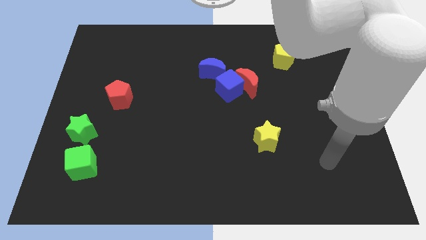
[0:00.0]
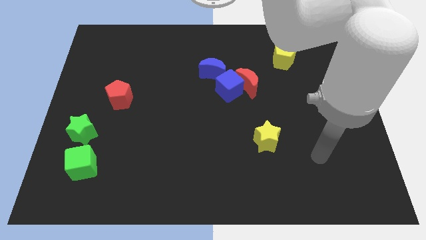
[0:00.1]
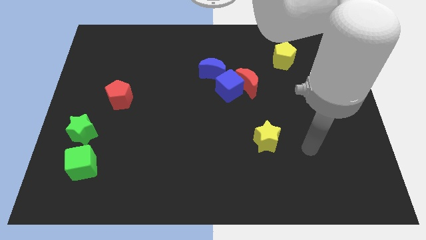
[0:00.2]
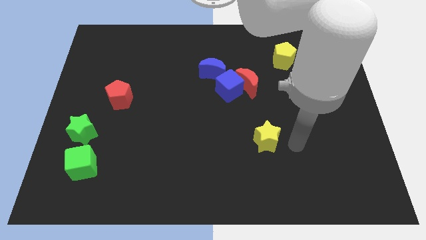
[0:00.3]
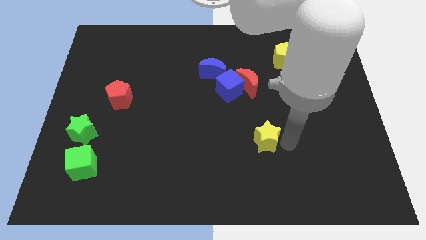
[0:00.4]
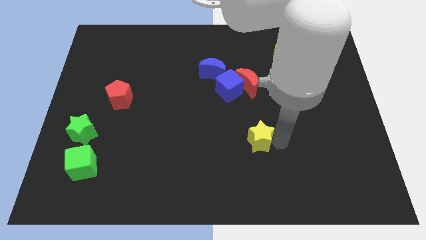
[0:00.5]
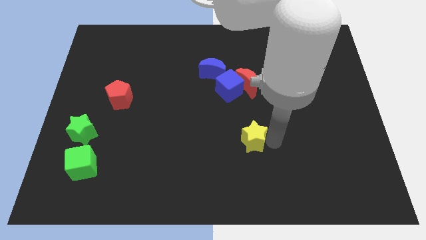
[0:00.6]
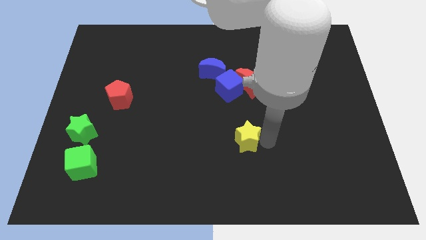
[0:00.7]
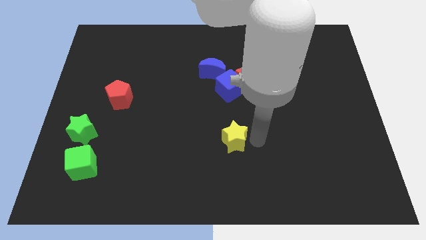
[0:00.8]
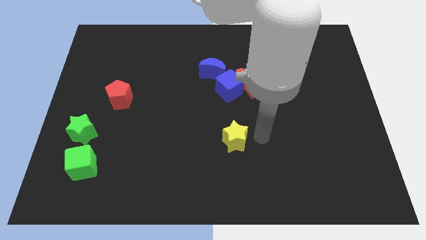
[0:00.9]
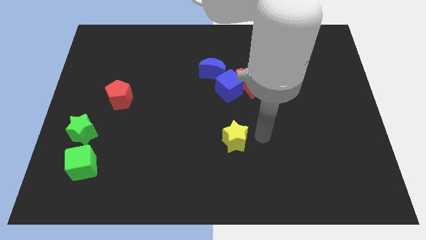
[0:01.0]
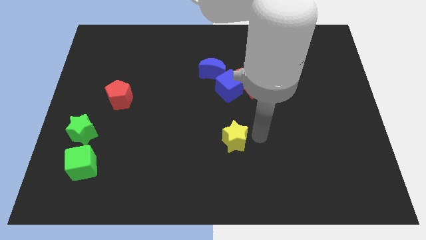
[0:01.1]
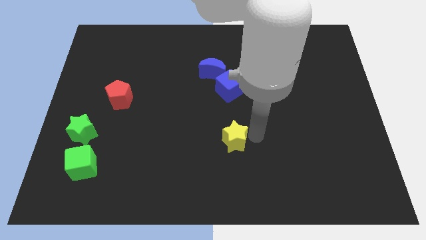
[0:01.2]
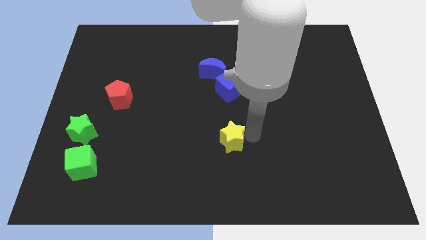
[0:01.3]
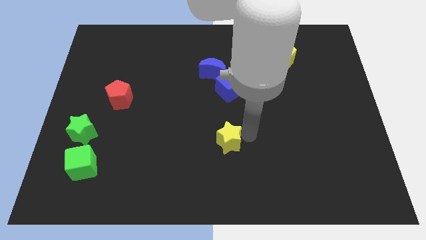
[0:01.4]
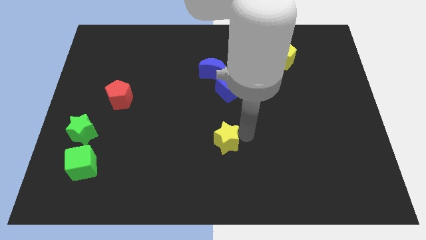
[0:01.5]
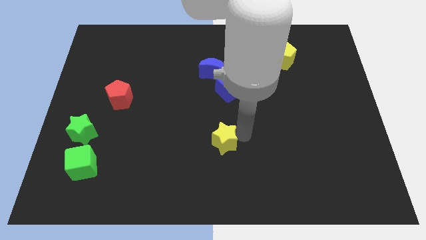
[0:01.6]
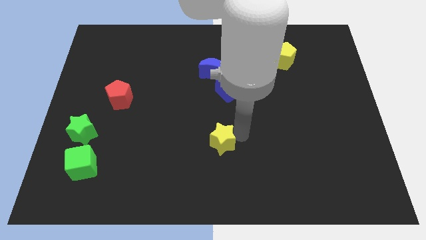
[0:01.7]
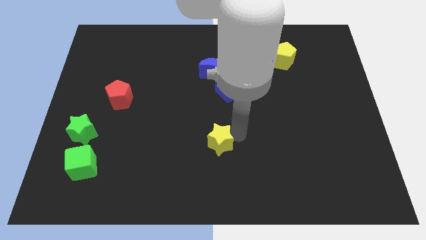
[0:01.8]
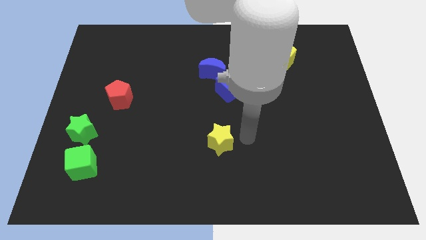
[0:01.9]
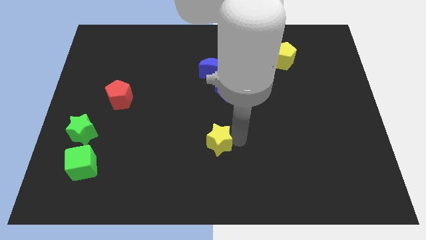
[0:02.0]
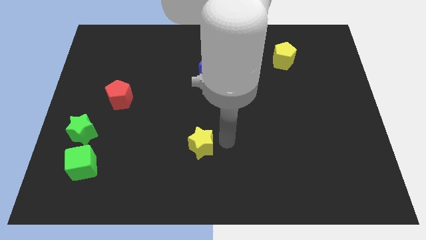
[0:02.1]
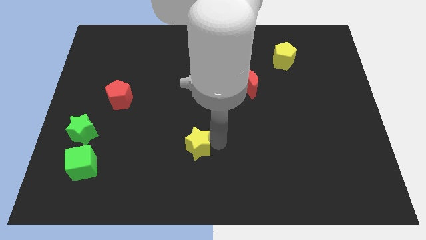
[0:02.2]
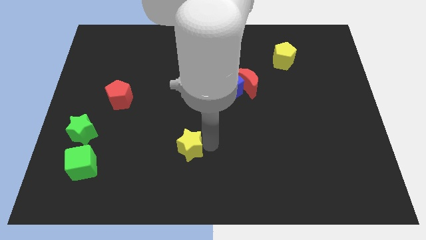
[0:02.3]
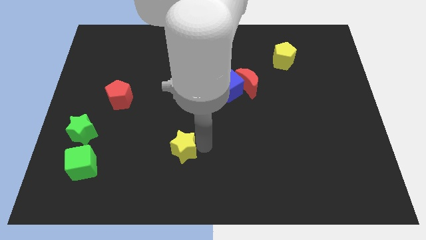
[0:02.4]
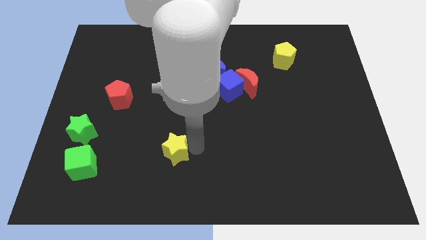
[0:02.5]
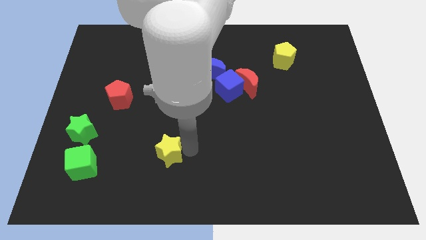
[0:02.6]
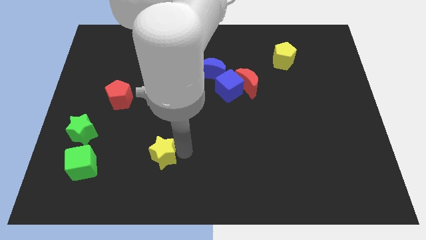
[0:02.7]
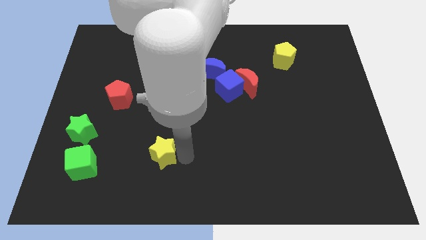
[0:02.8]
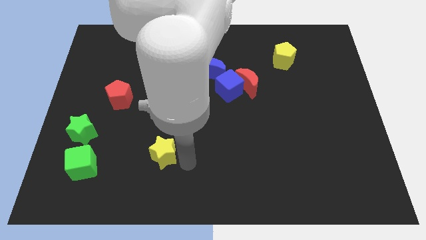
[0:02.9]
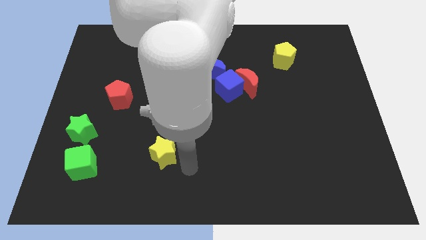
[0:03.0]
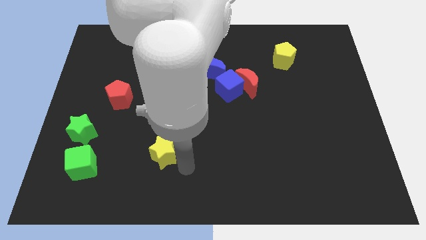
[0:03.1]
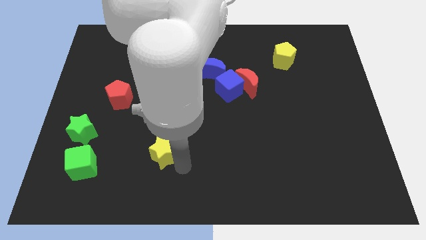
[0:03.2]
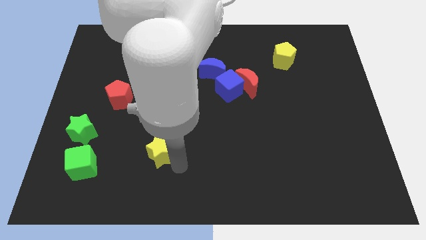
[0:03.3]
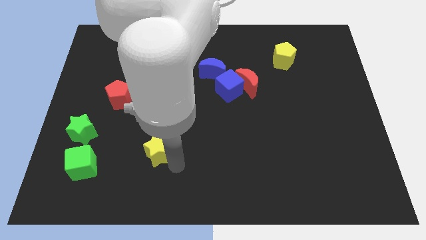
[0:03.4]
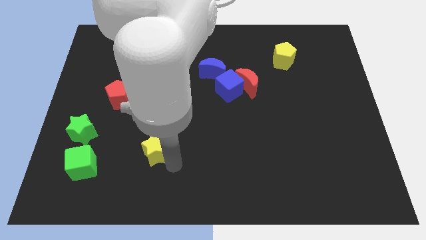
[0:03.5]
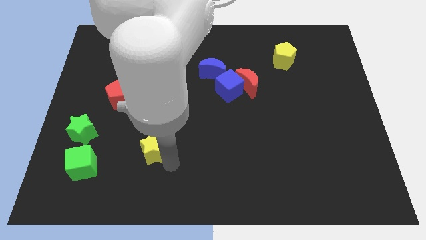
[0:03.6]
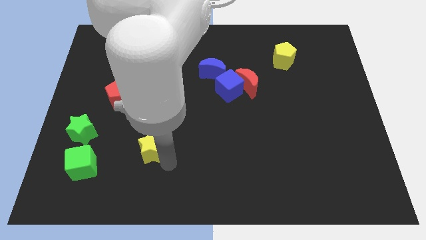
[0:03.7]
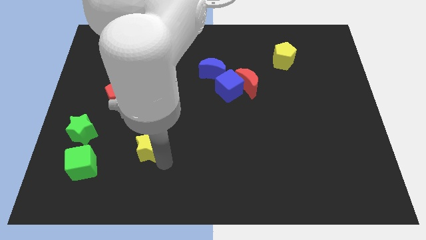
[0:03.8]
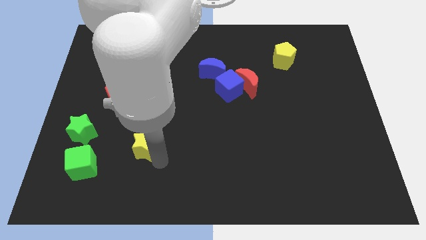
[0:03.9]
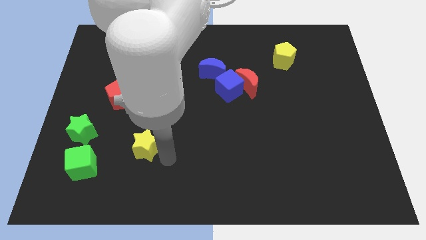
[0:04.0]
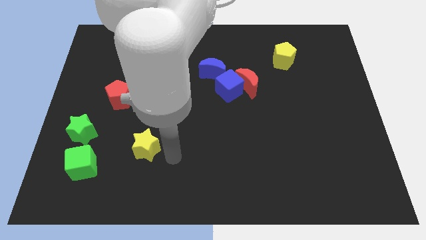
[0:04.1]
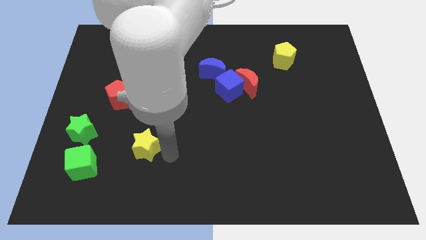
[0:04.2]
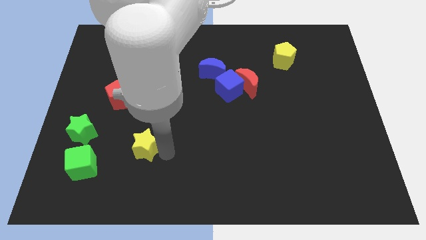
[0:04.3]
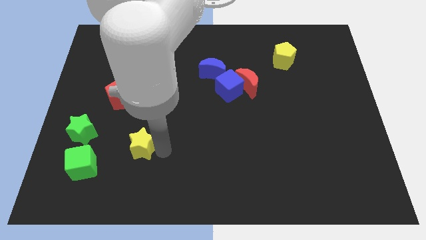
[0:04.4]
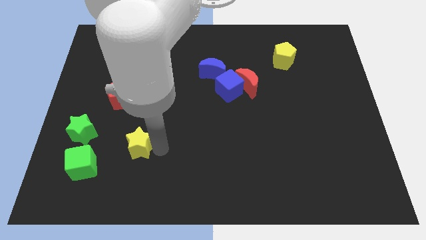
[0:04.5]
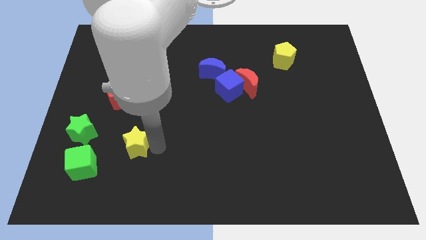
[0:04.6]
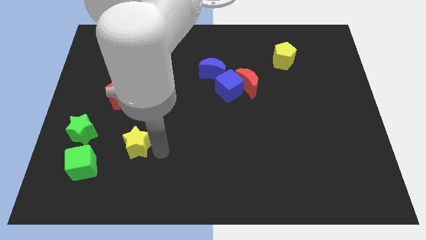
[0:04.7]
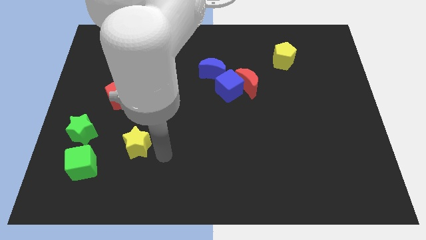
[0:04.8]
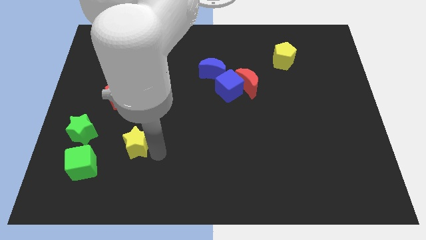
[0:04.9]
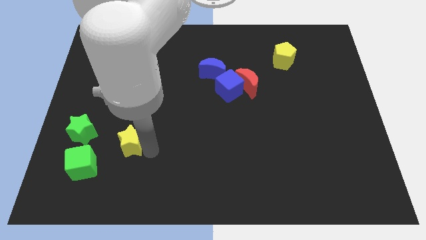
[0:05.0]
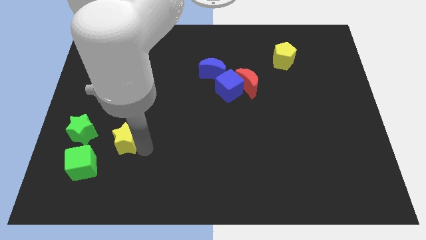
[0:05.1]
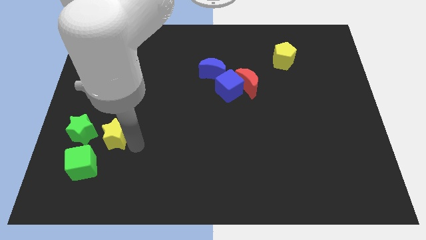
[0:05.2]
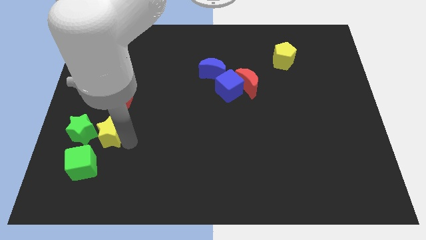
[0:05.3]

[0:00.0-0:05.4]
push the yellow star towards the green star

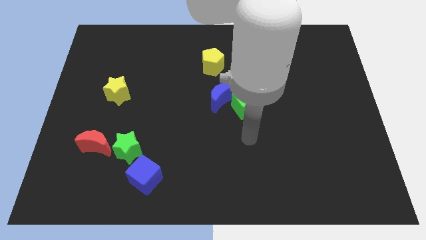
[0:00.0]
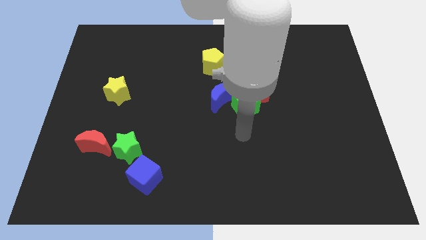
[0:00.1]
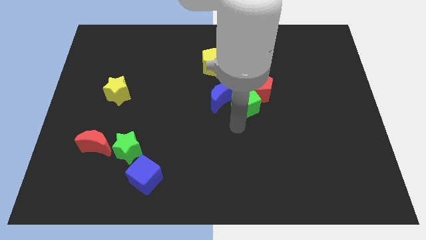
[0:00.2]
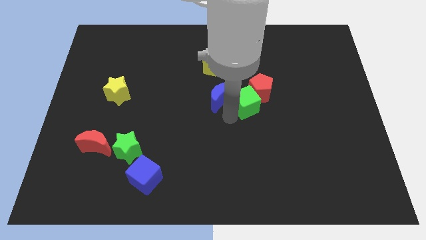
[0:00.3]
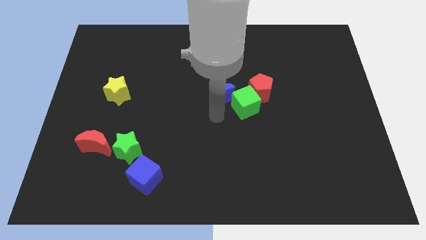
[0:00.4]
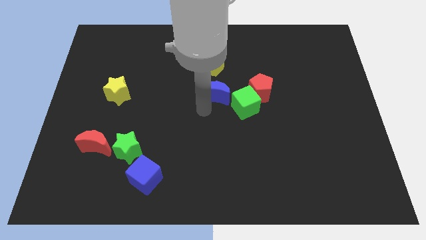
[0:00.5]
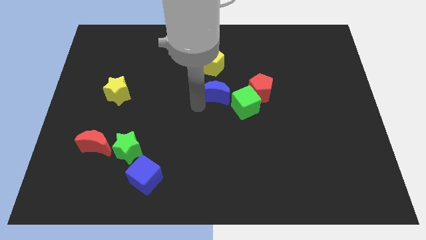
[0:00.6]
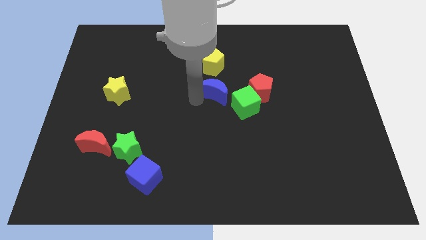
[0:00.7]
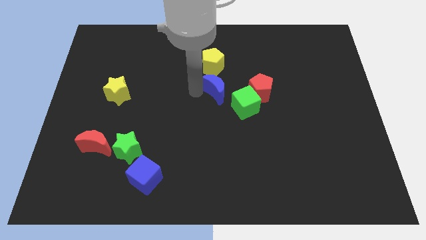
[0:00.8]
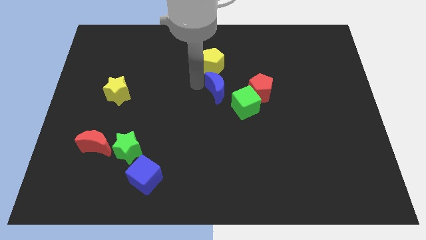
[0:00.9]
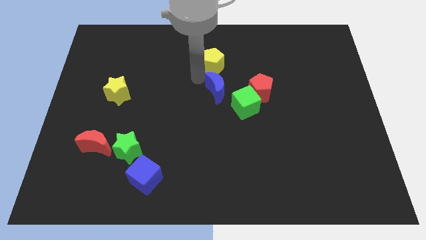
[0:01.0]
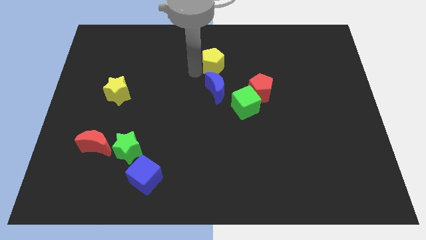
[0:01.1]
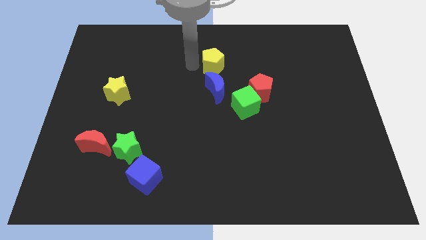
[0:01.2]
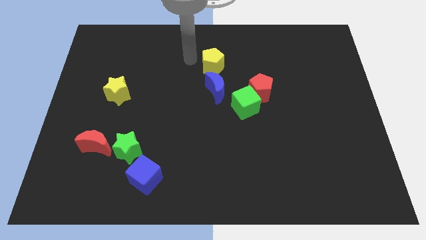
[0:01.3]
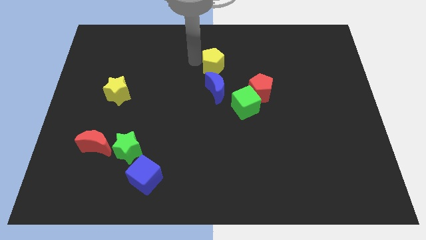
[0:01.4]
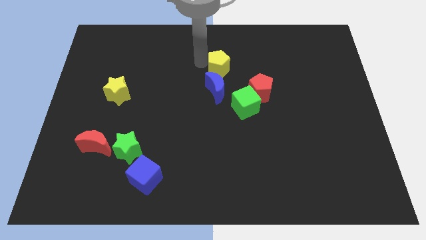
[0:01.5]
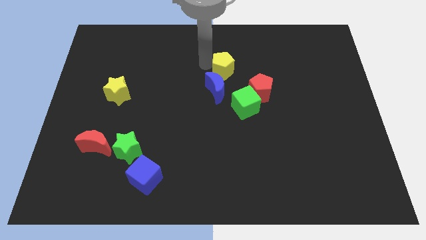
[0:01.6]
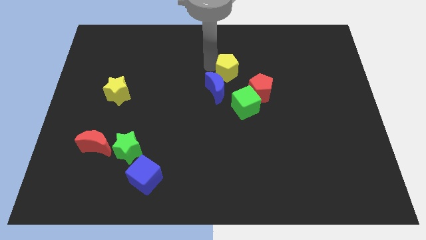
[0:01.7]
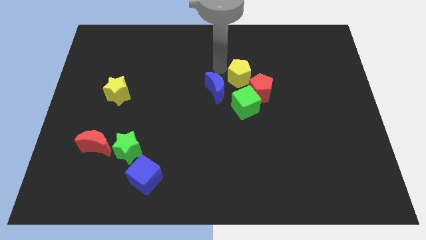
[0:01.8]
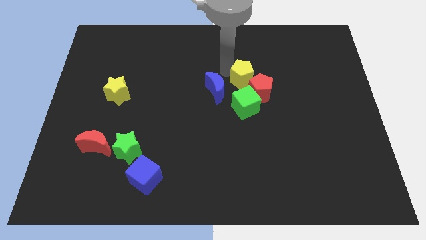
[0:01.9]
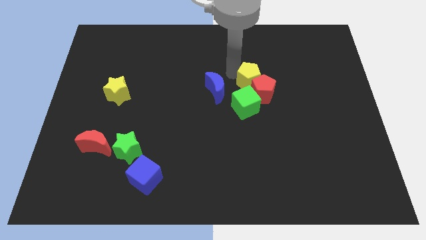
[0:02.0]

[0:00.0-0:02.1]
move the yellow pentagon next to the red pentagon
